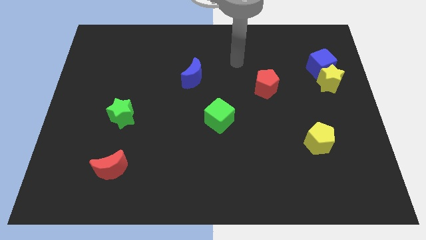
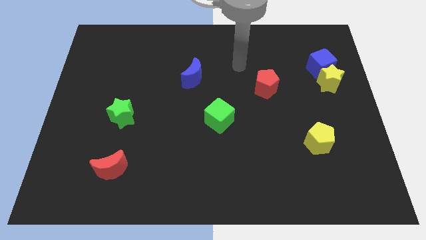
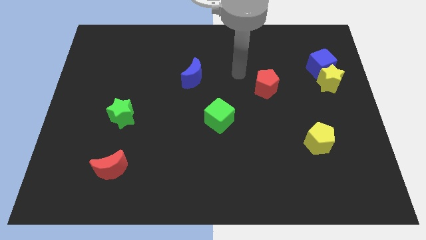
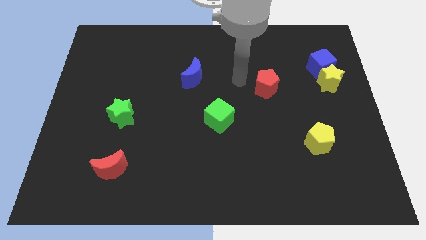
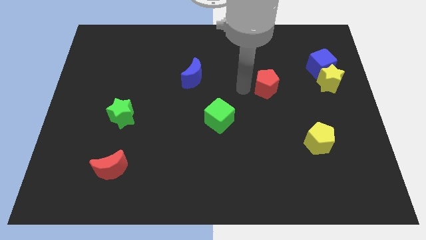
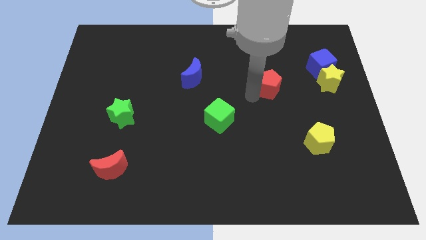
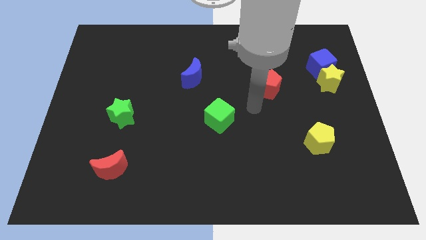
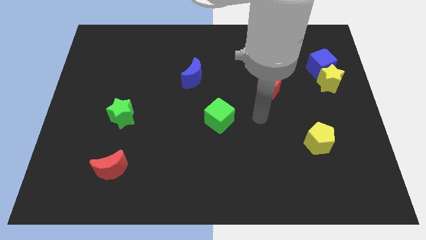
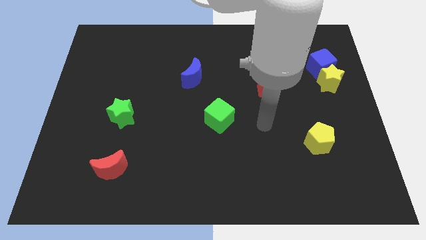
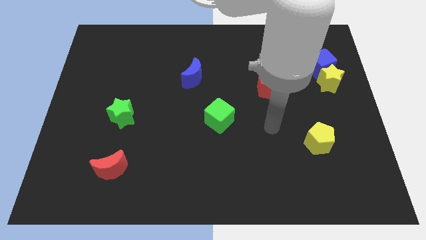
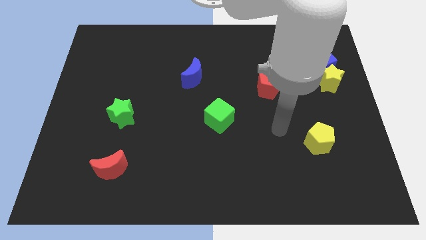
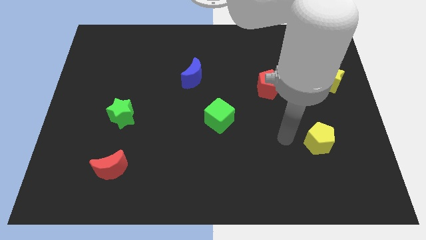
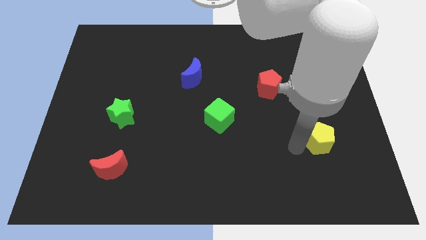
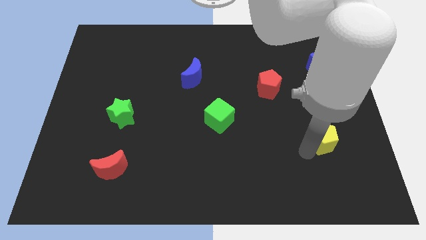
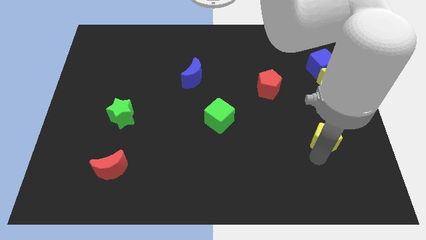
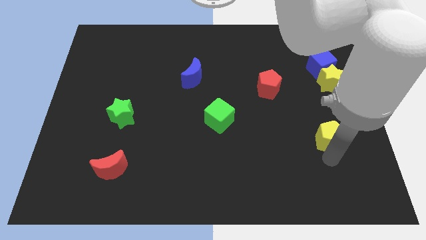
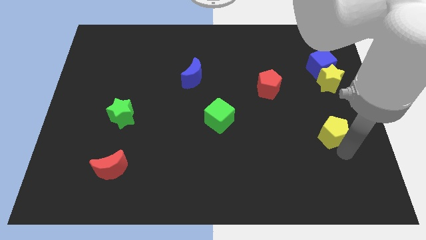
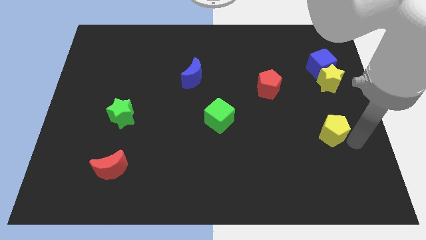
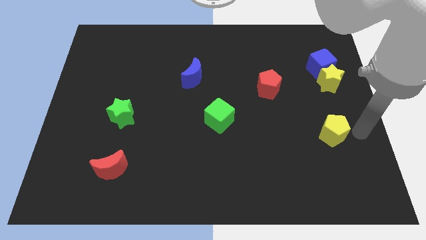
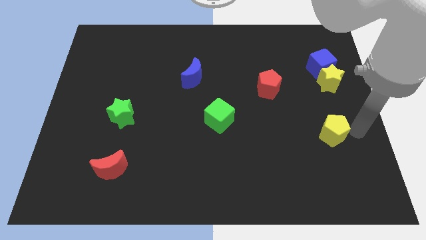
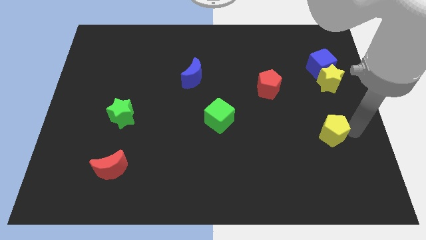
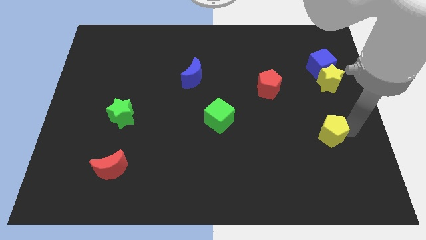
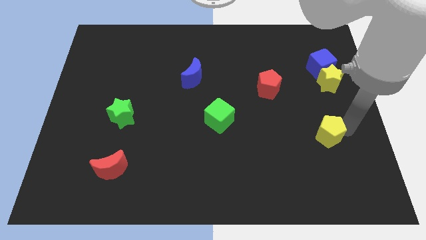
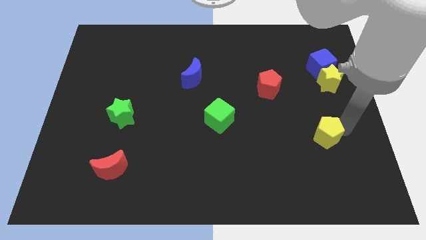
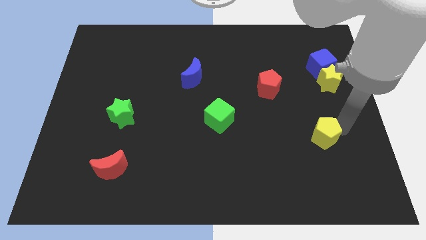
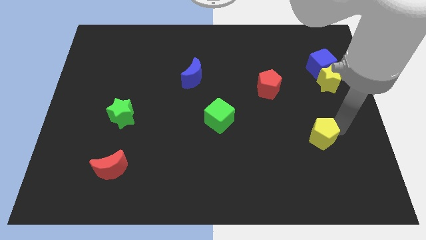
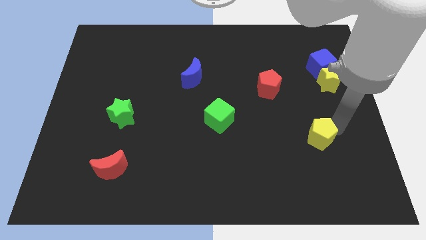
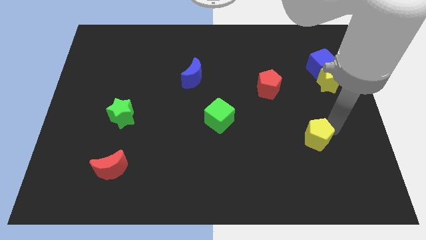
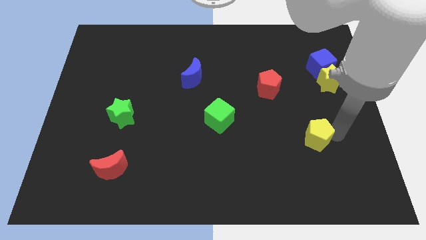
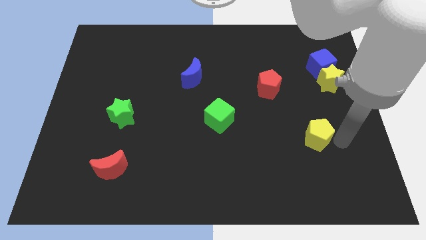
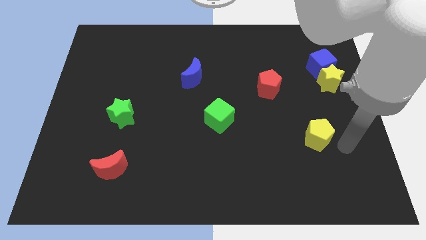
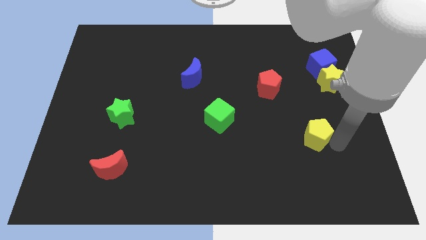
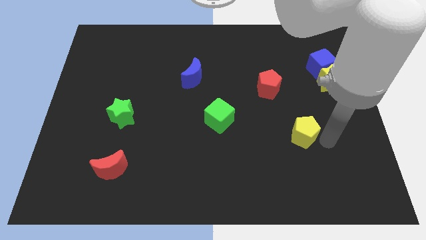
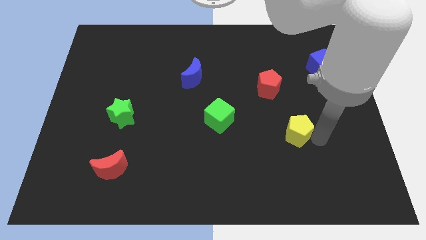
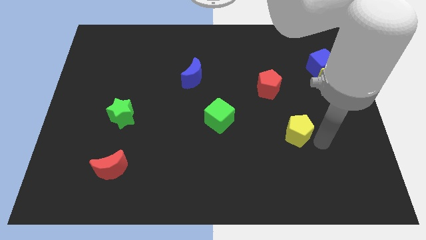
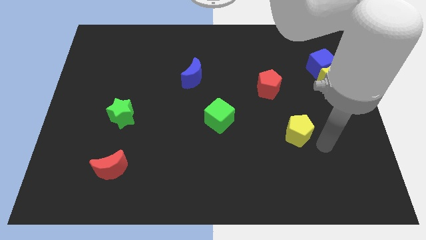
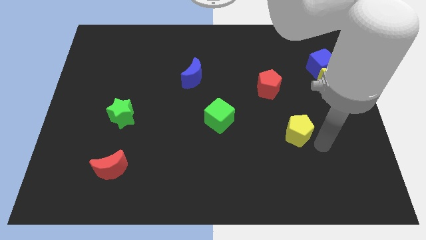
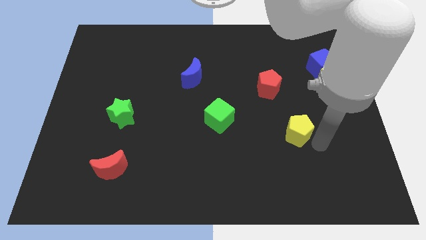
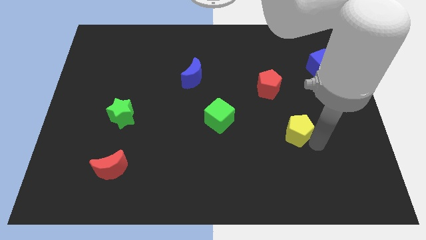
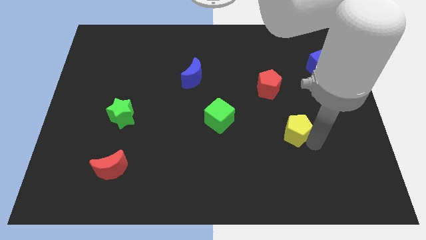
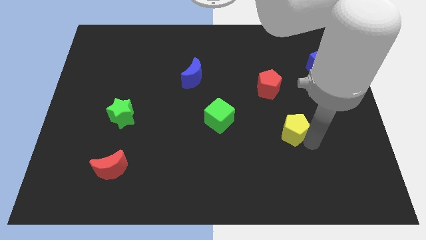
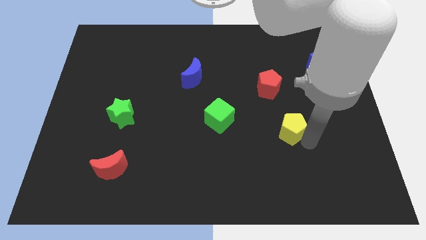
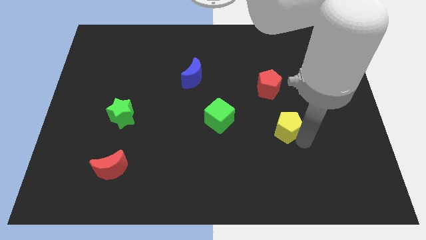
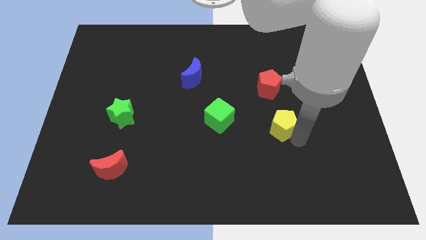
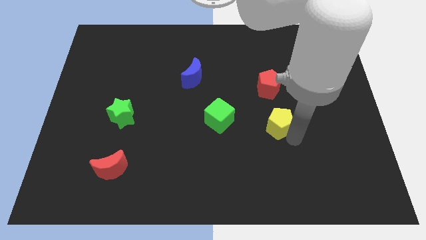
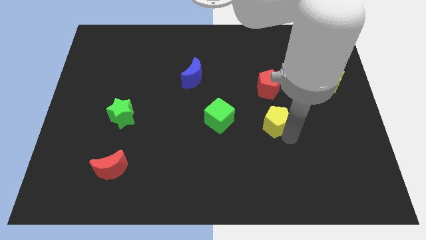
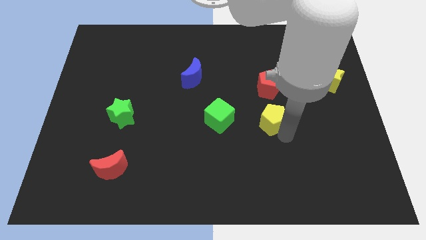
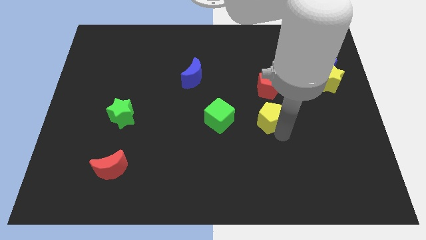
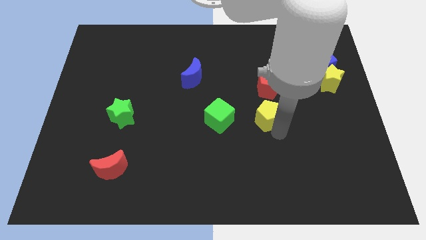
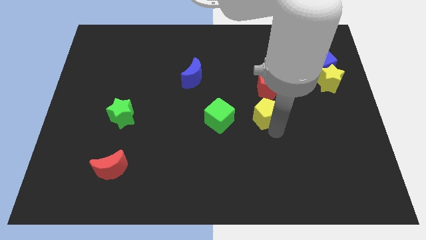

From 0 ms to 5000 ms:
push the yellow pentagon to the center

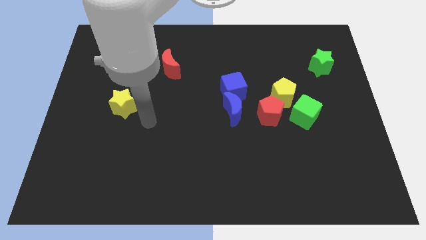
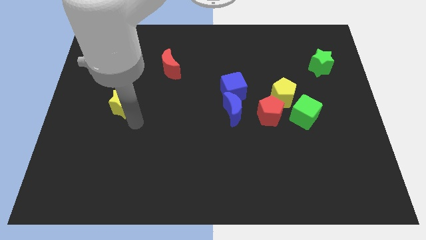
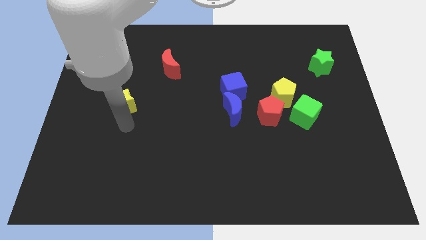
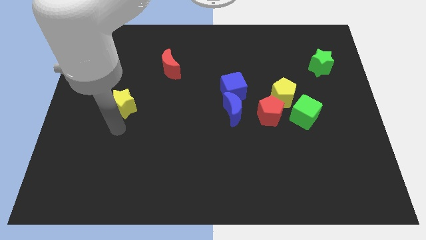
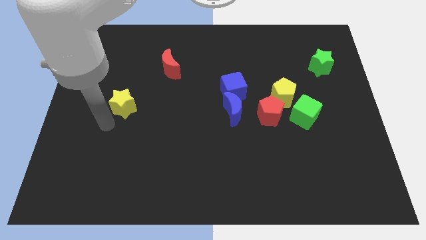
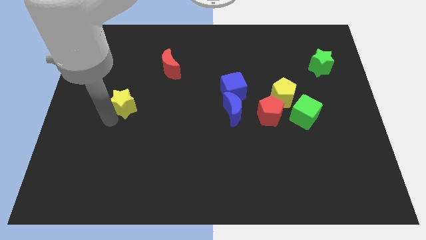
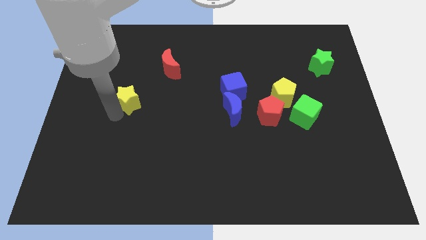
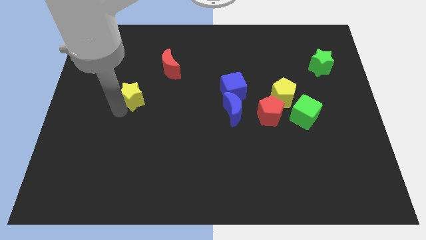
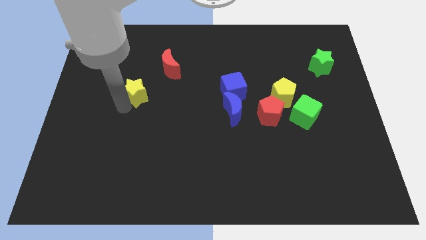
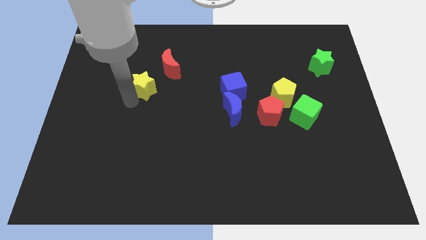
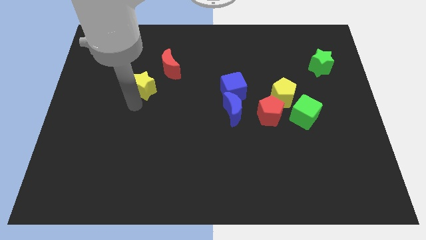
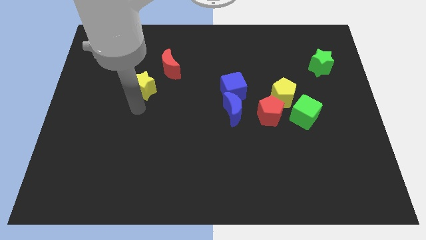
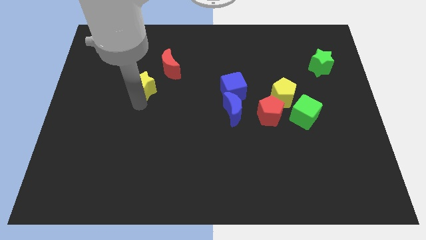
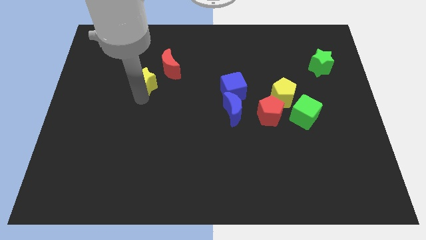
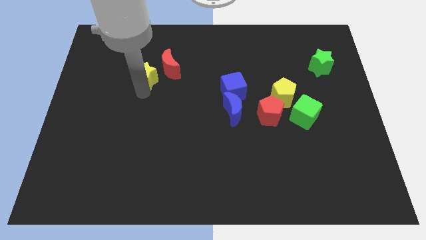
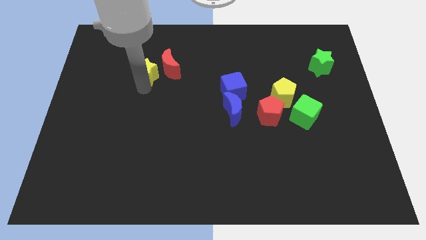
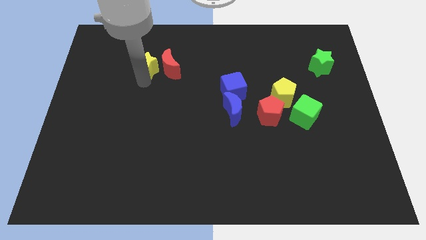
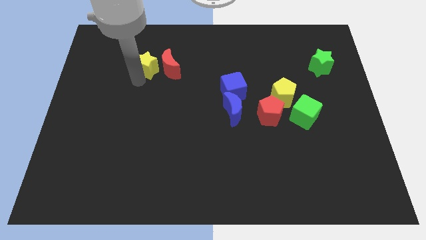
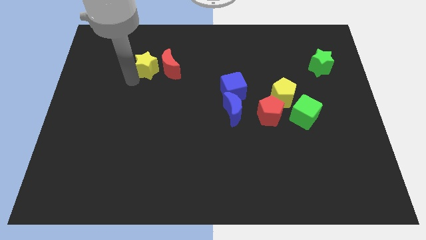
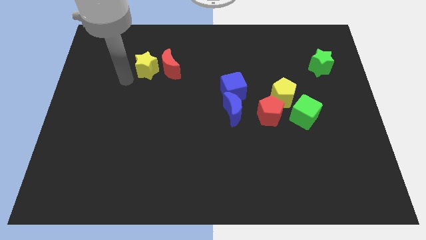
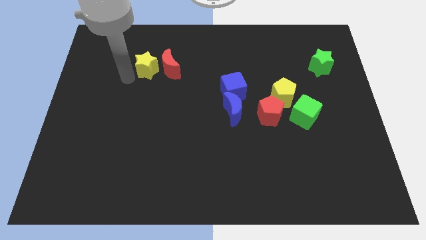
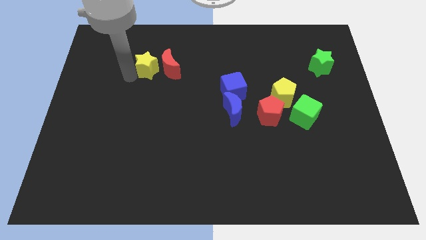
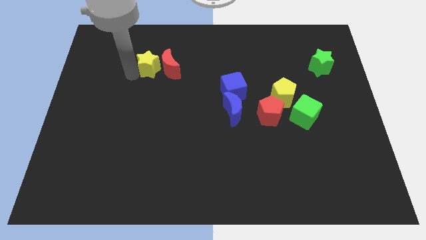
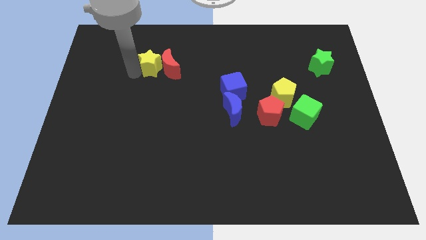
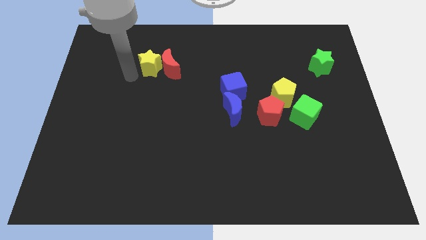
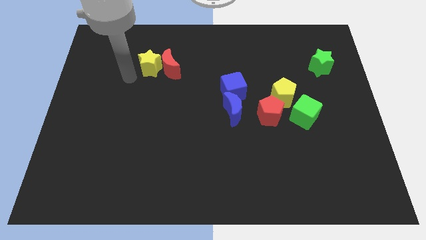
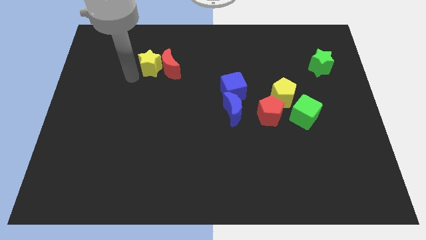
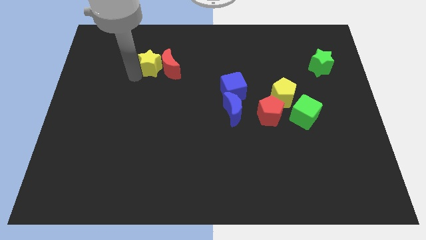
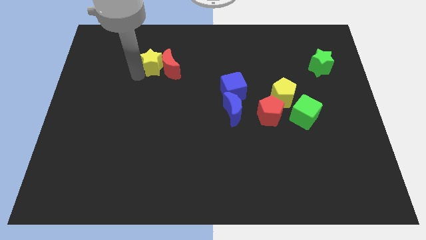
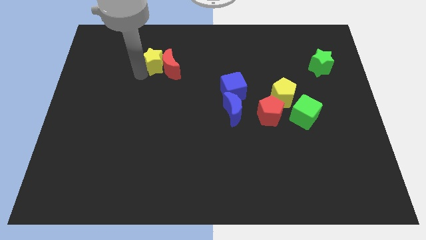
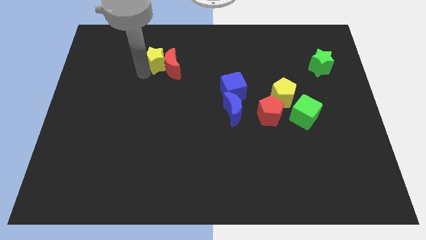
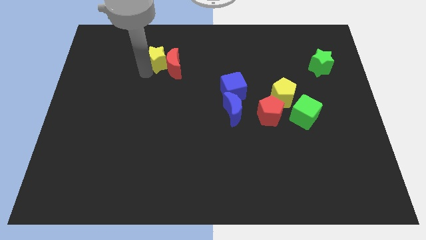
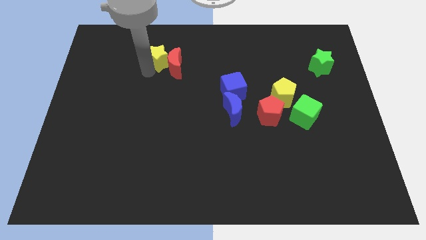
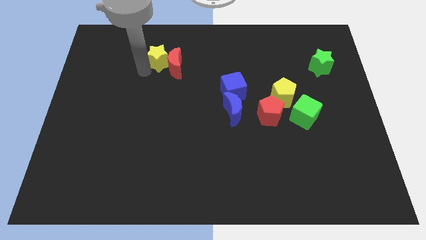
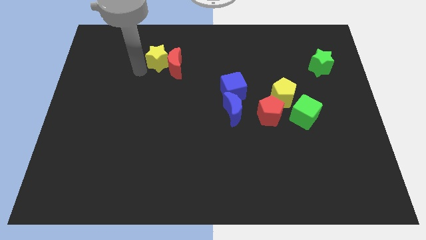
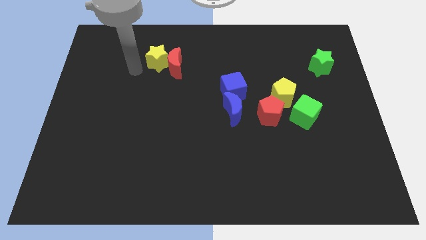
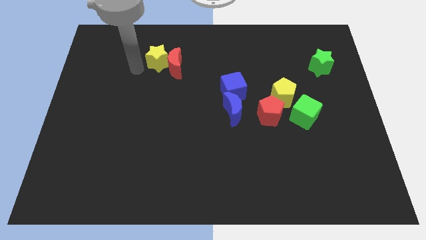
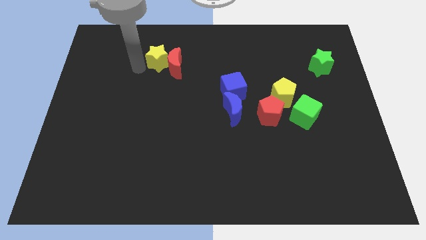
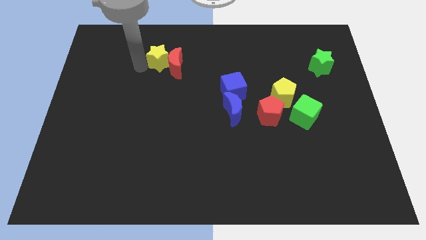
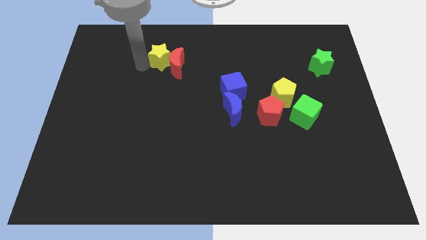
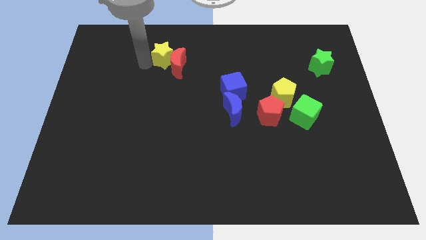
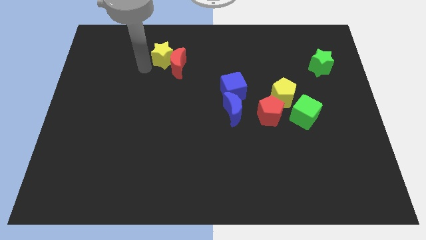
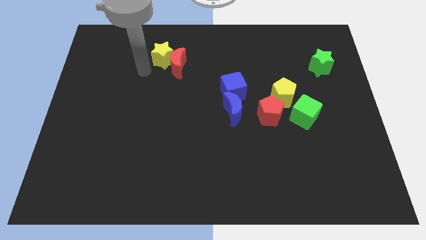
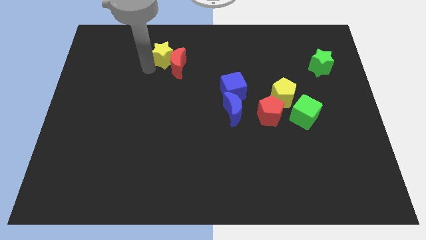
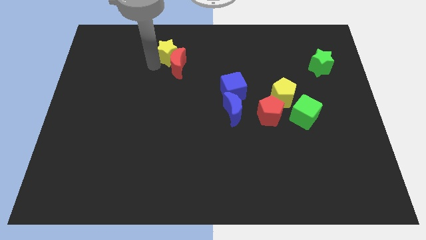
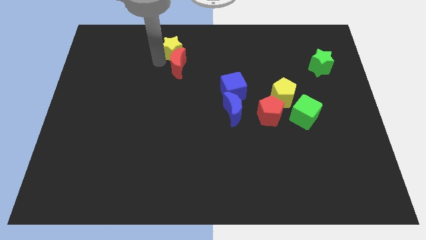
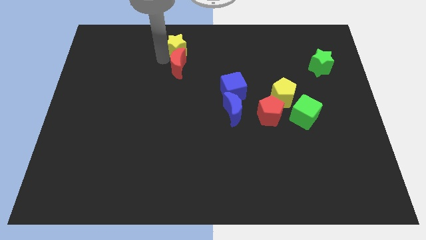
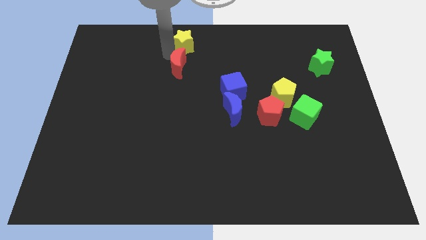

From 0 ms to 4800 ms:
move the yellow star to the towards your base
